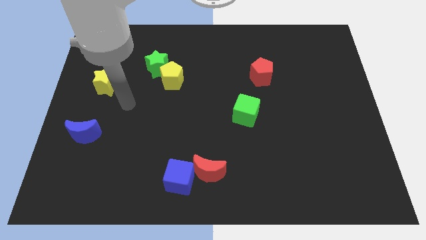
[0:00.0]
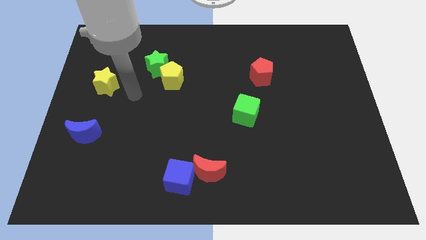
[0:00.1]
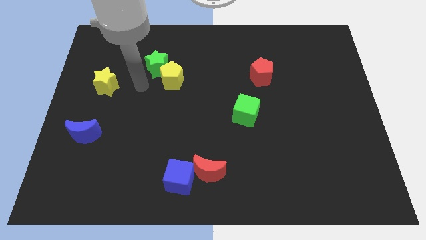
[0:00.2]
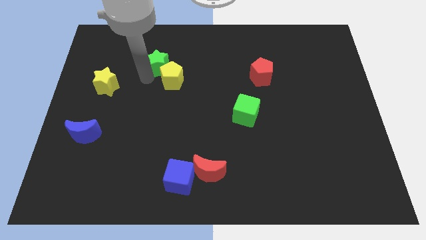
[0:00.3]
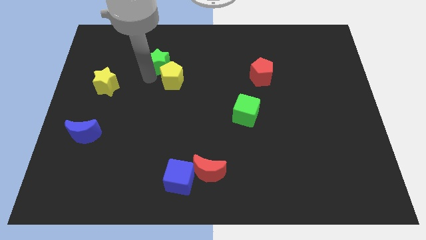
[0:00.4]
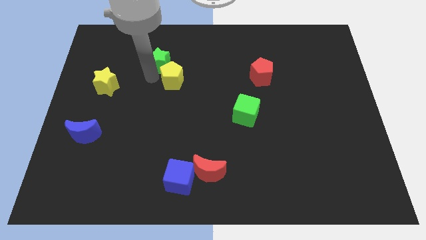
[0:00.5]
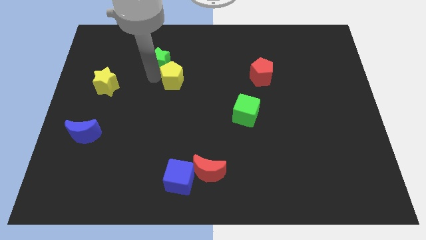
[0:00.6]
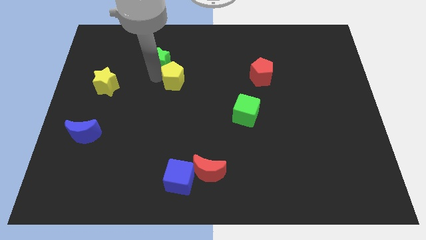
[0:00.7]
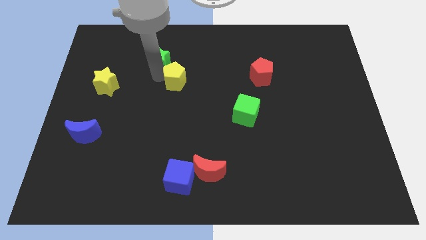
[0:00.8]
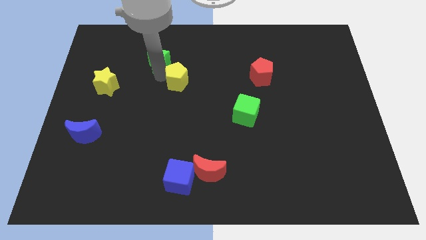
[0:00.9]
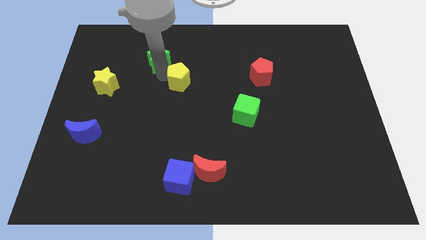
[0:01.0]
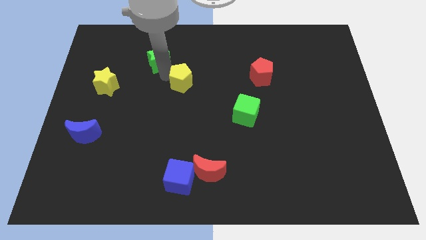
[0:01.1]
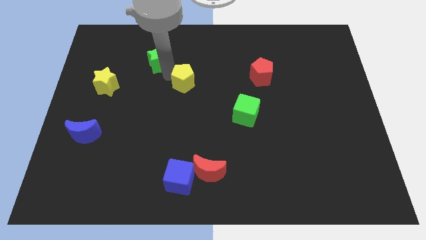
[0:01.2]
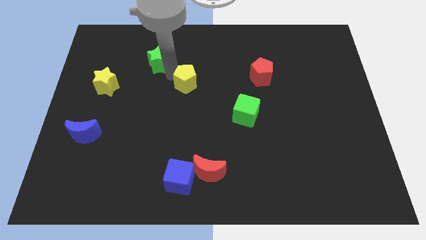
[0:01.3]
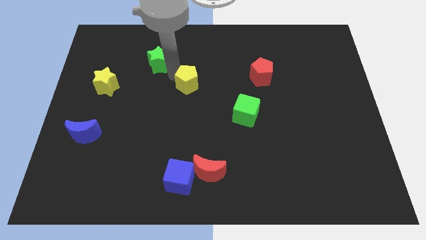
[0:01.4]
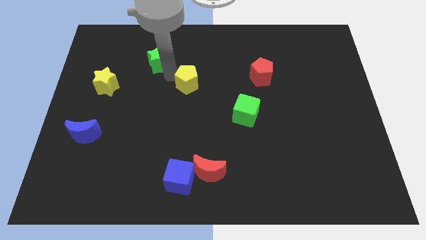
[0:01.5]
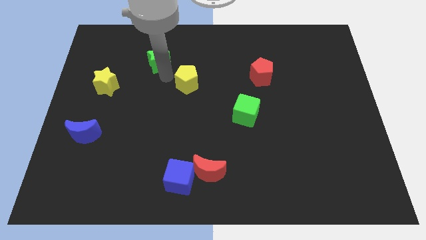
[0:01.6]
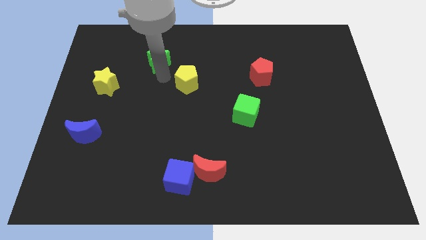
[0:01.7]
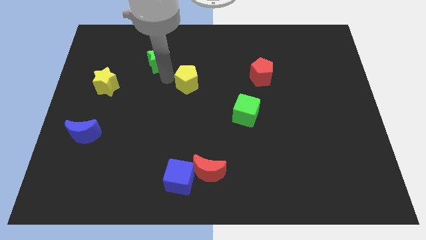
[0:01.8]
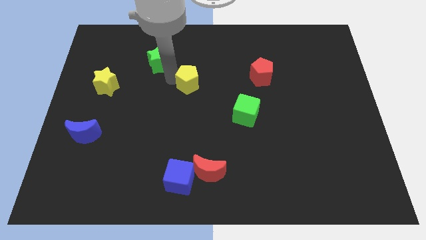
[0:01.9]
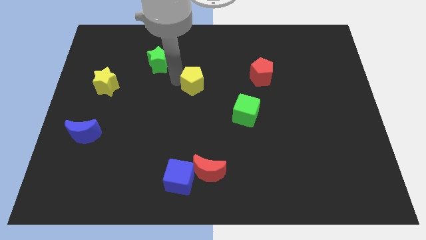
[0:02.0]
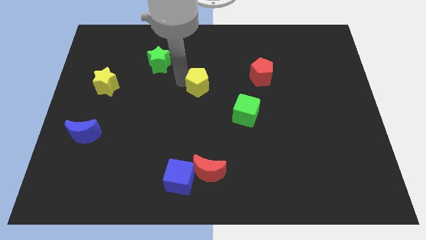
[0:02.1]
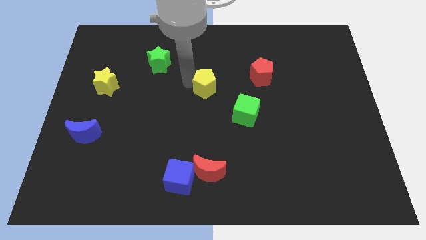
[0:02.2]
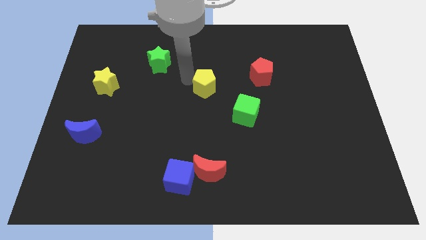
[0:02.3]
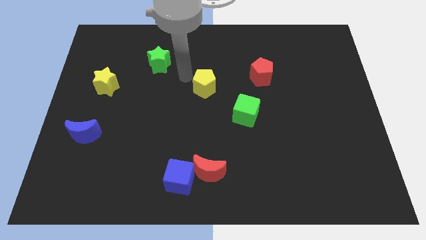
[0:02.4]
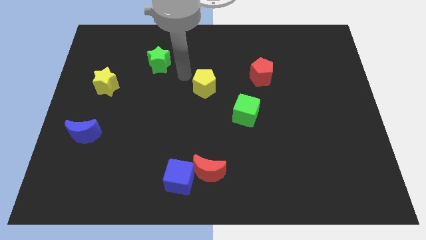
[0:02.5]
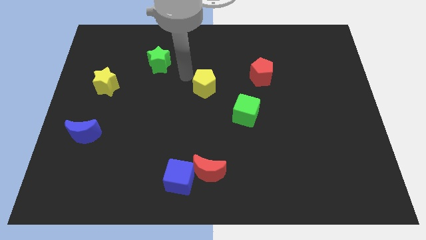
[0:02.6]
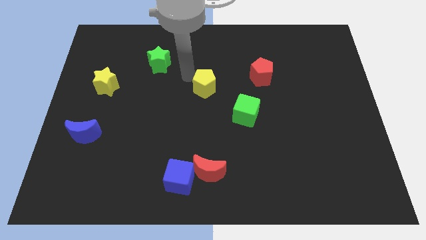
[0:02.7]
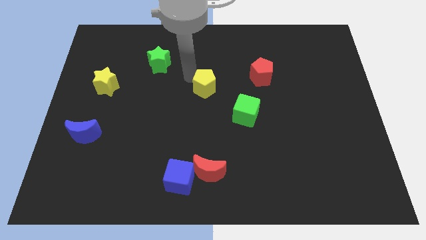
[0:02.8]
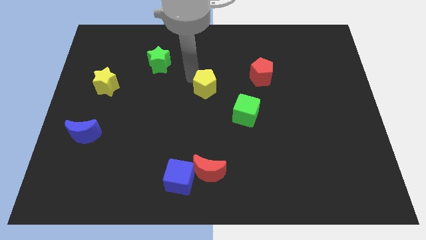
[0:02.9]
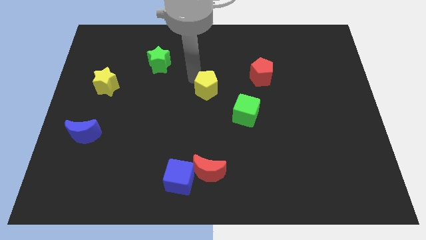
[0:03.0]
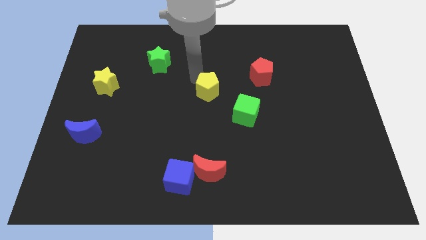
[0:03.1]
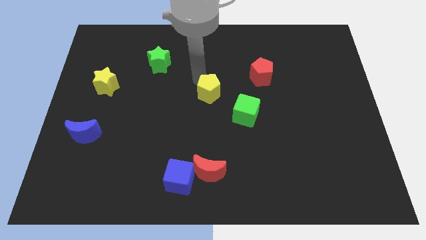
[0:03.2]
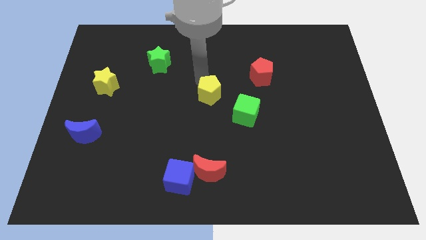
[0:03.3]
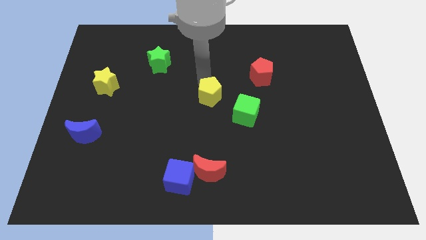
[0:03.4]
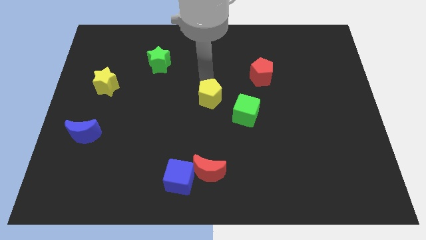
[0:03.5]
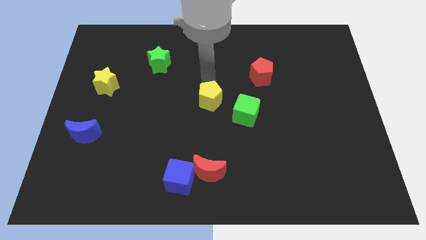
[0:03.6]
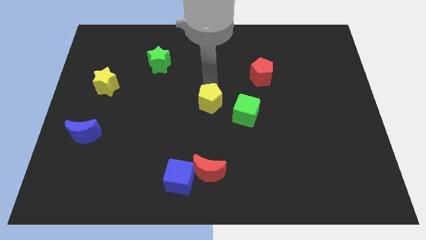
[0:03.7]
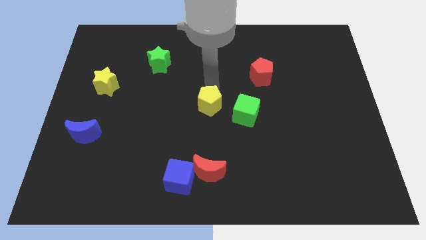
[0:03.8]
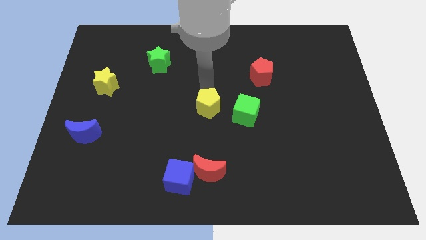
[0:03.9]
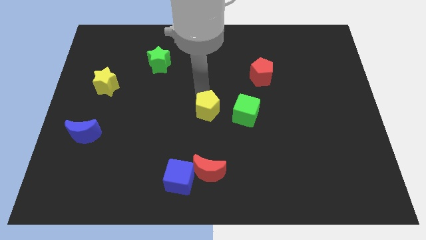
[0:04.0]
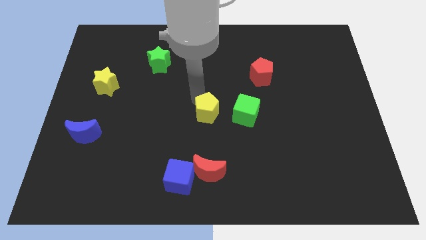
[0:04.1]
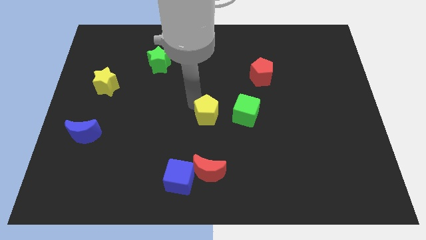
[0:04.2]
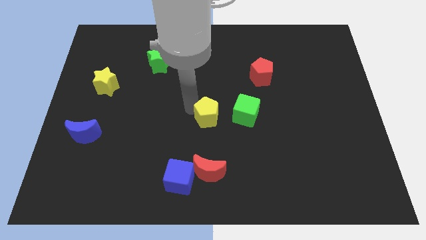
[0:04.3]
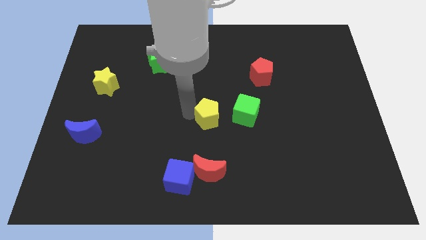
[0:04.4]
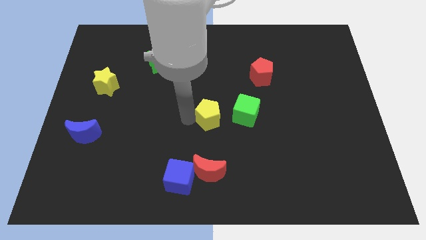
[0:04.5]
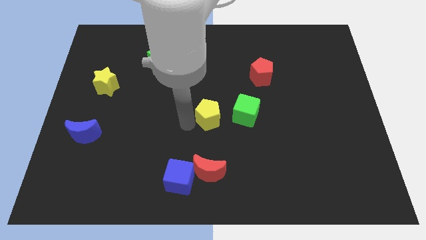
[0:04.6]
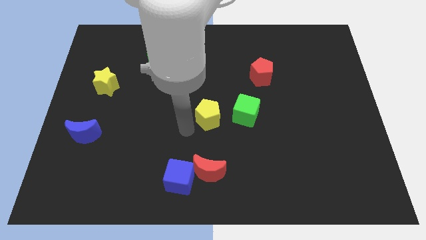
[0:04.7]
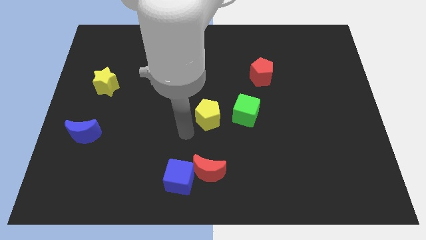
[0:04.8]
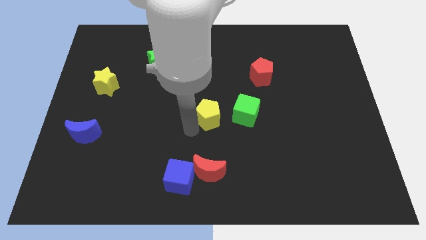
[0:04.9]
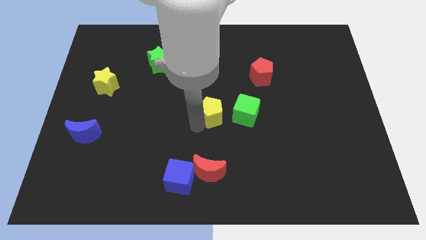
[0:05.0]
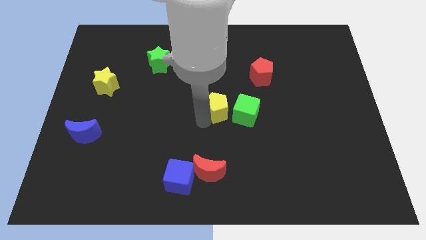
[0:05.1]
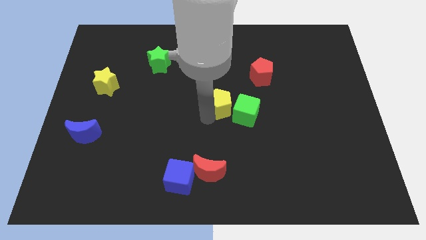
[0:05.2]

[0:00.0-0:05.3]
slide the yellow pentagon to the green cube

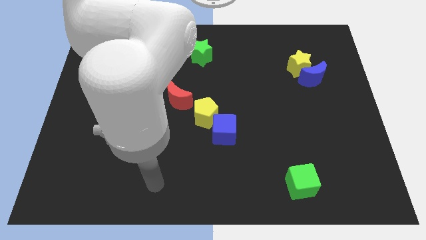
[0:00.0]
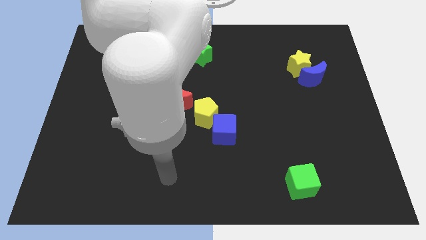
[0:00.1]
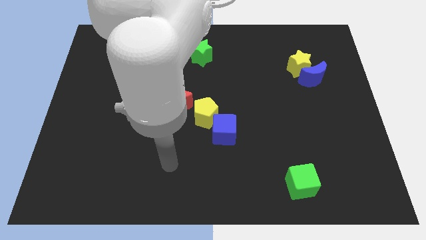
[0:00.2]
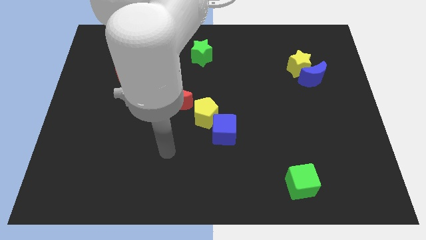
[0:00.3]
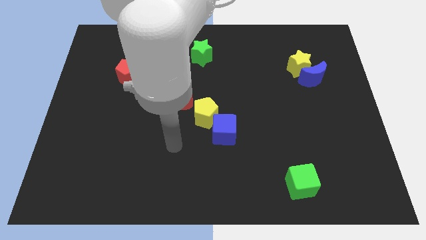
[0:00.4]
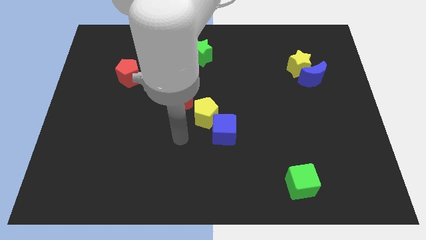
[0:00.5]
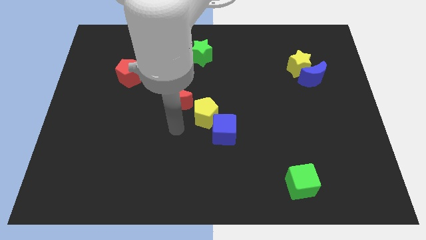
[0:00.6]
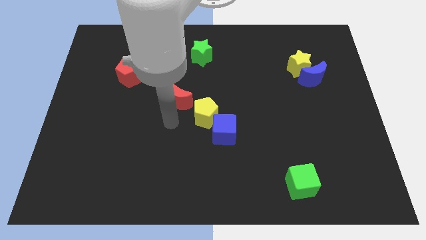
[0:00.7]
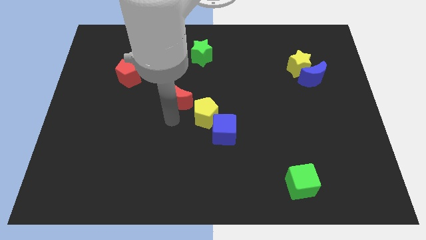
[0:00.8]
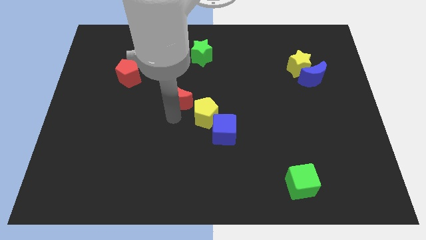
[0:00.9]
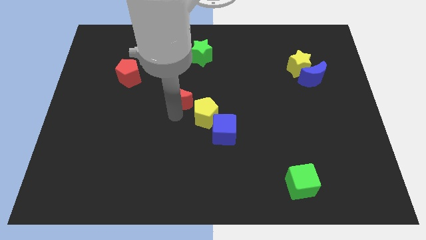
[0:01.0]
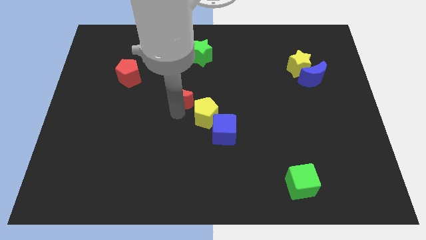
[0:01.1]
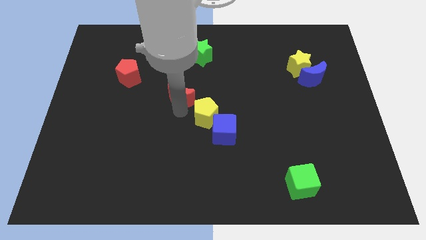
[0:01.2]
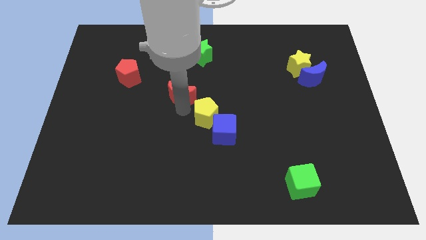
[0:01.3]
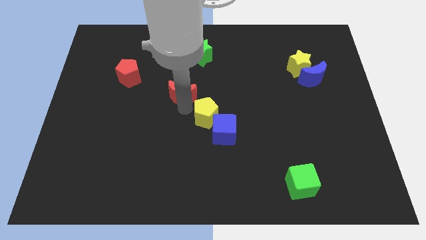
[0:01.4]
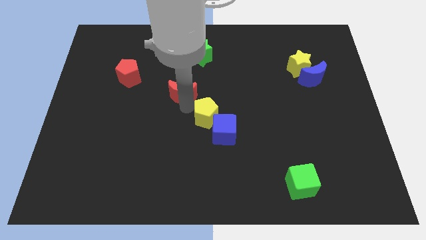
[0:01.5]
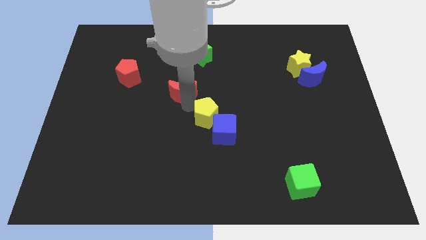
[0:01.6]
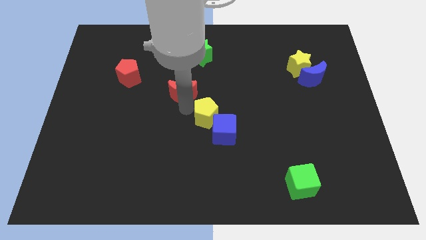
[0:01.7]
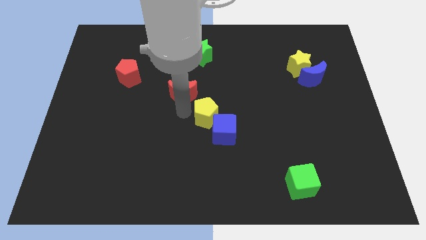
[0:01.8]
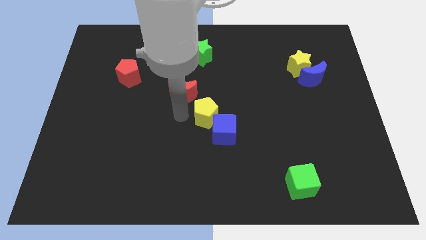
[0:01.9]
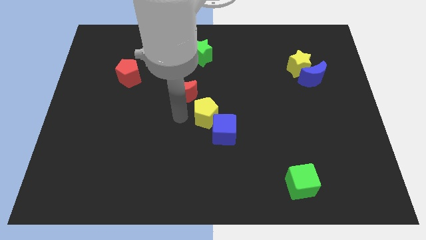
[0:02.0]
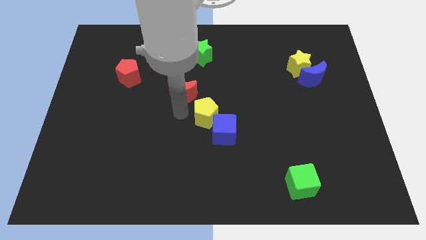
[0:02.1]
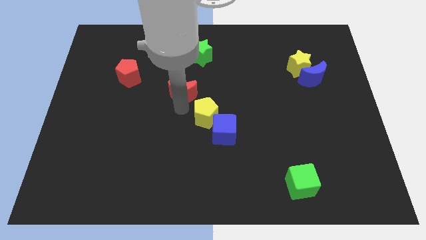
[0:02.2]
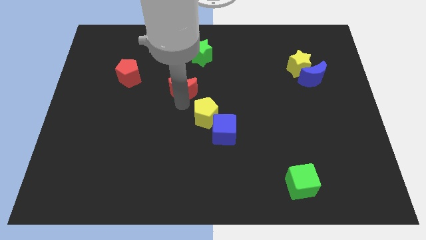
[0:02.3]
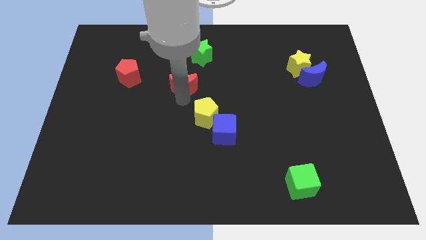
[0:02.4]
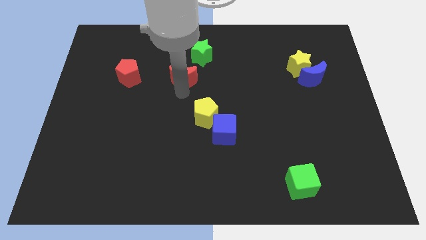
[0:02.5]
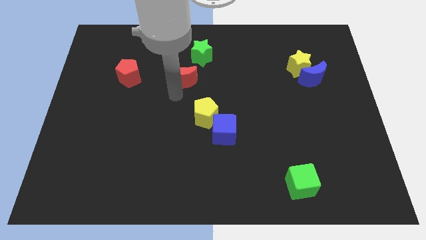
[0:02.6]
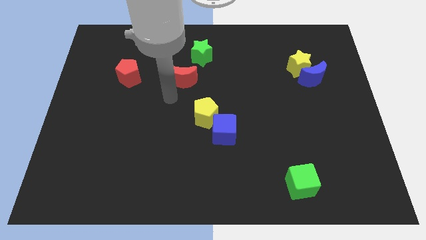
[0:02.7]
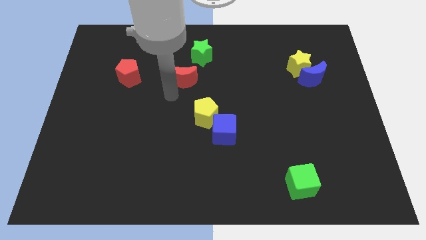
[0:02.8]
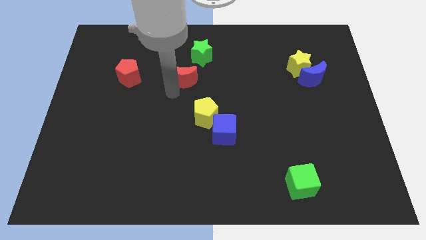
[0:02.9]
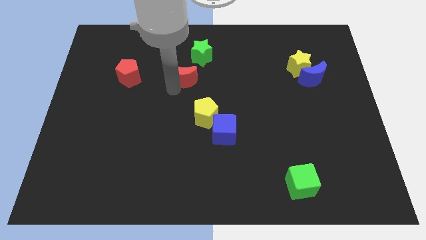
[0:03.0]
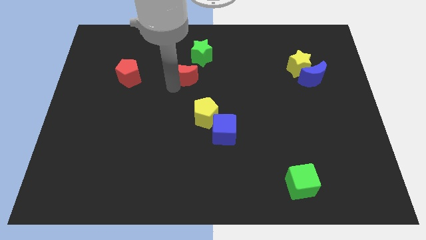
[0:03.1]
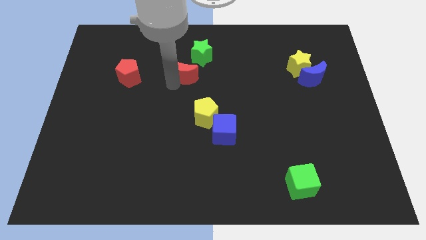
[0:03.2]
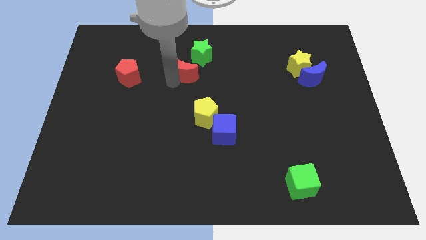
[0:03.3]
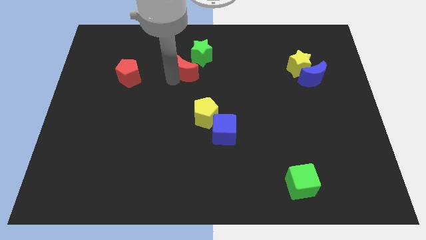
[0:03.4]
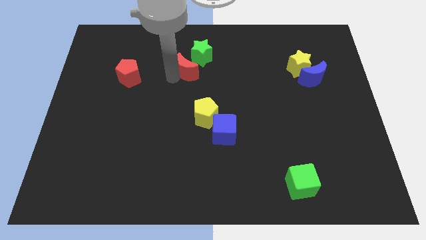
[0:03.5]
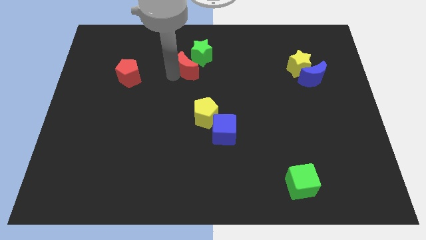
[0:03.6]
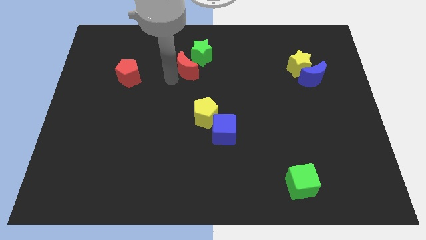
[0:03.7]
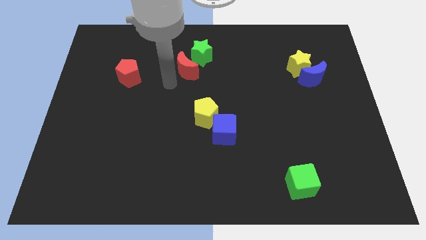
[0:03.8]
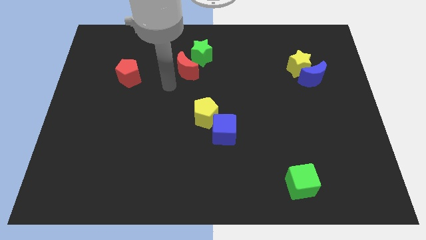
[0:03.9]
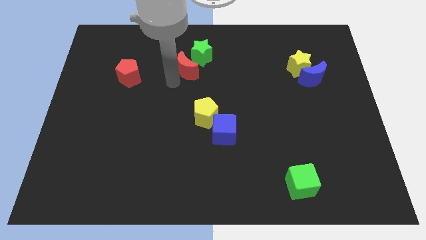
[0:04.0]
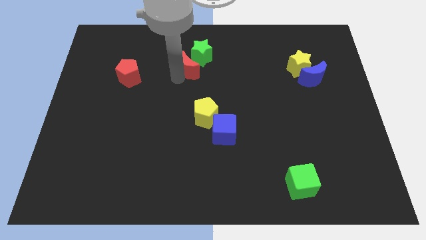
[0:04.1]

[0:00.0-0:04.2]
slide the red moon towards the green star
